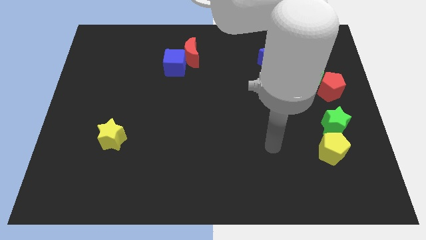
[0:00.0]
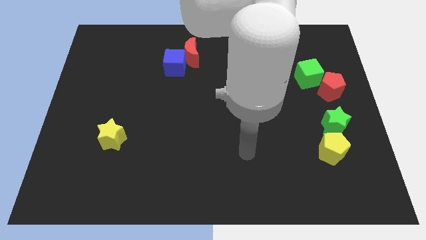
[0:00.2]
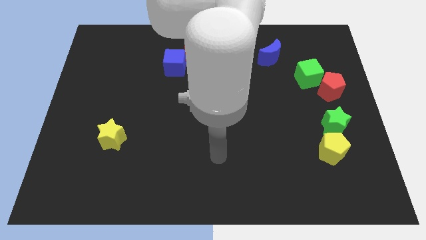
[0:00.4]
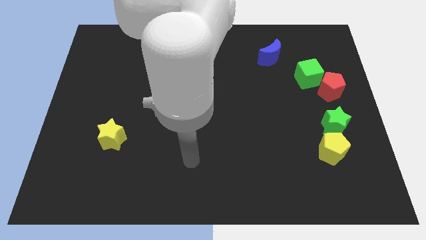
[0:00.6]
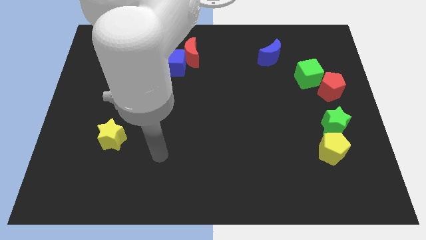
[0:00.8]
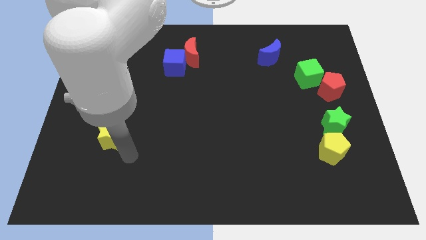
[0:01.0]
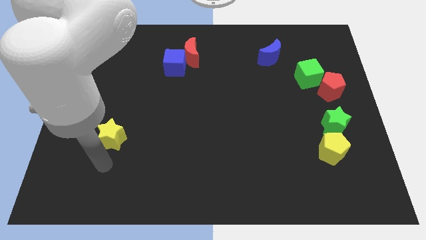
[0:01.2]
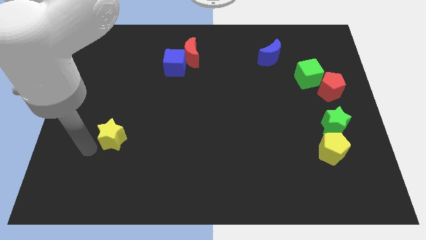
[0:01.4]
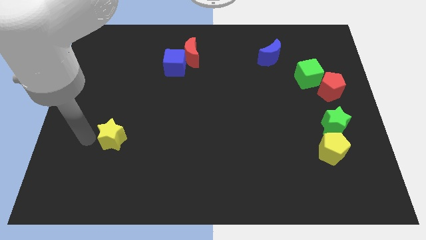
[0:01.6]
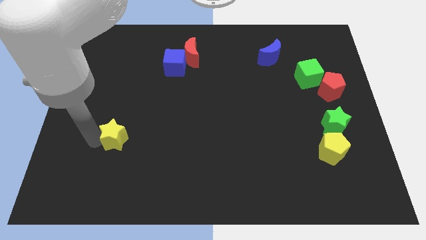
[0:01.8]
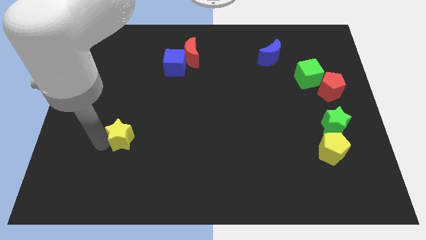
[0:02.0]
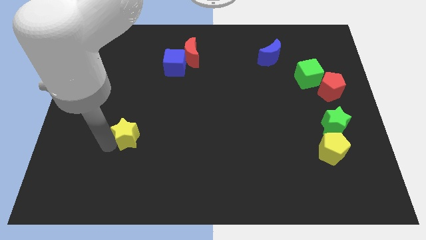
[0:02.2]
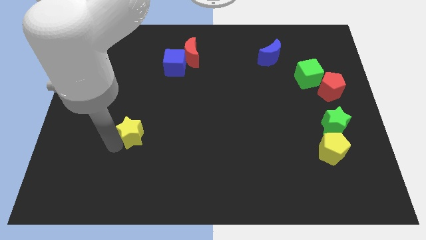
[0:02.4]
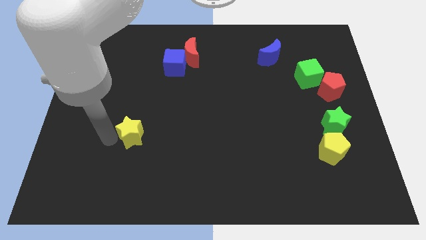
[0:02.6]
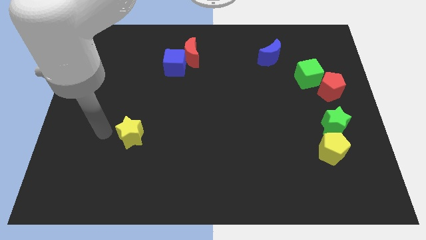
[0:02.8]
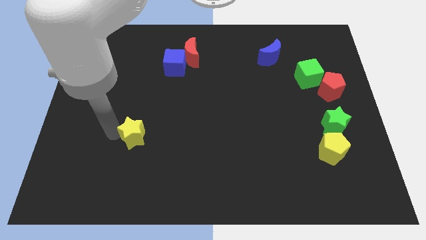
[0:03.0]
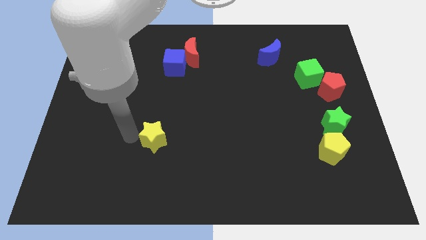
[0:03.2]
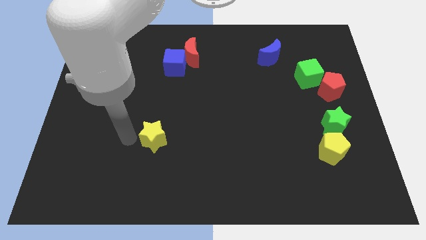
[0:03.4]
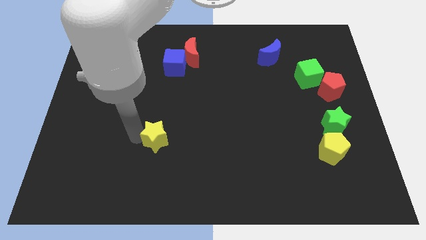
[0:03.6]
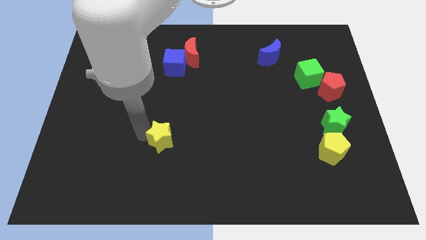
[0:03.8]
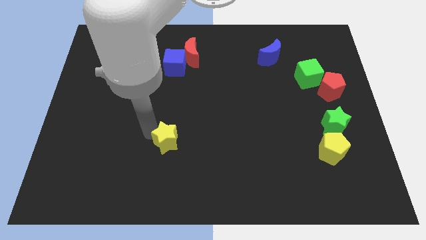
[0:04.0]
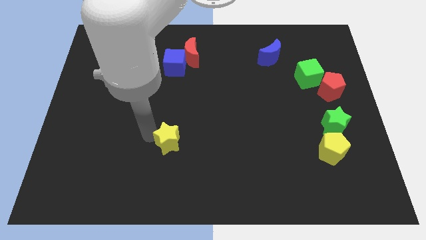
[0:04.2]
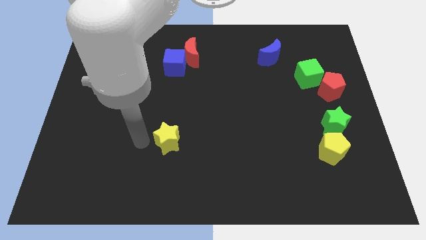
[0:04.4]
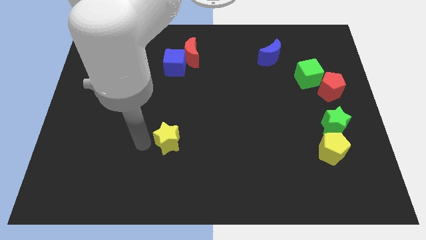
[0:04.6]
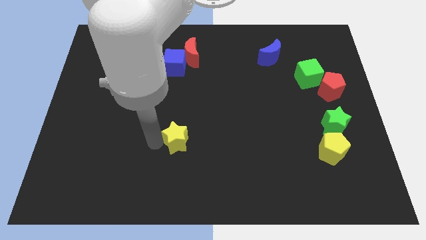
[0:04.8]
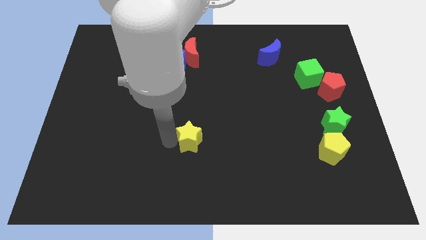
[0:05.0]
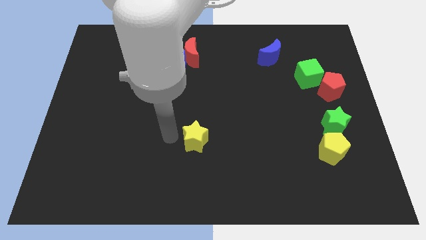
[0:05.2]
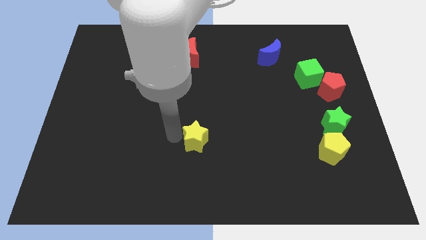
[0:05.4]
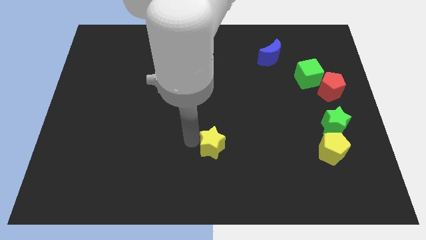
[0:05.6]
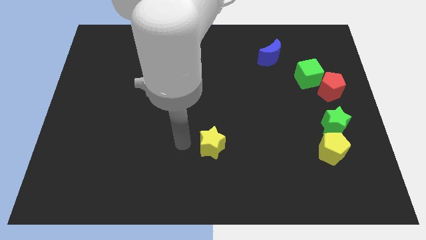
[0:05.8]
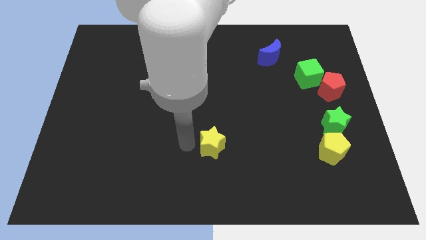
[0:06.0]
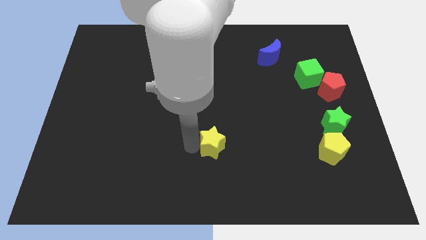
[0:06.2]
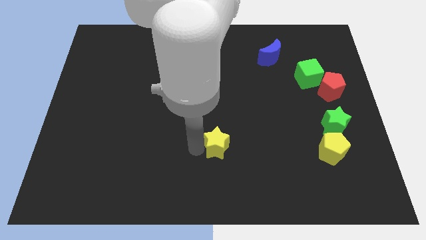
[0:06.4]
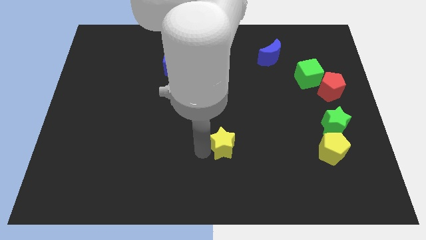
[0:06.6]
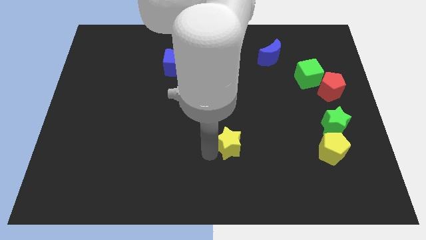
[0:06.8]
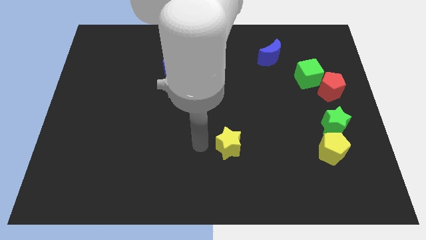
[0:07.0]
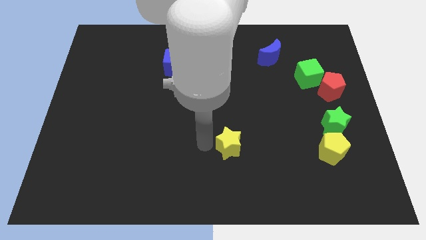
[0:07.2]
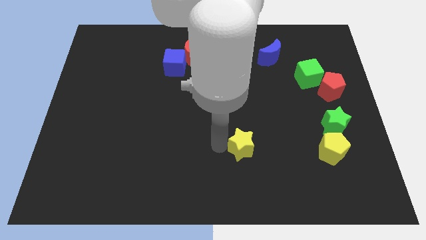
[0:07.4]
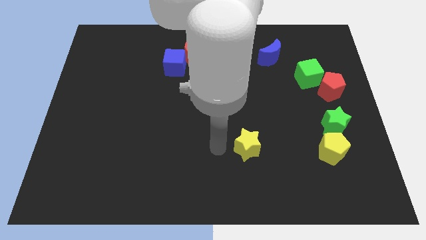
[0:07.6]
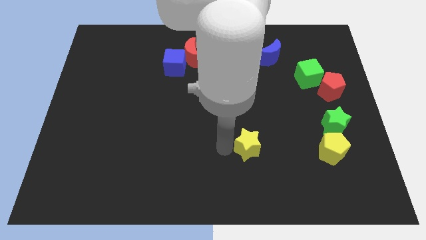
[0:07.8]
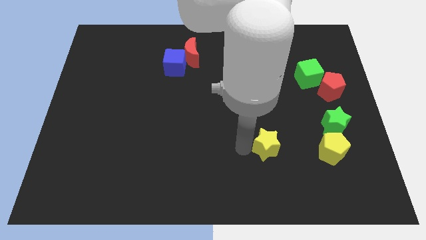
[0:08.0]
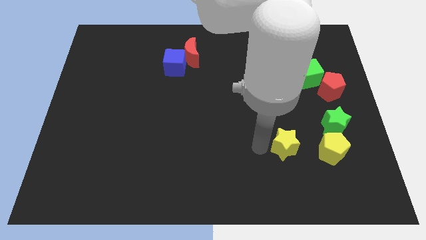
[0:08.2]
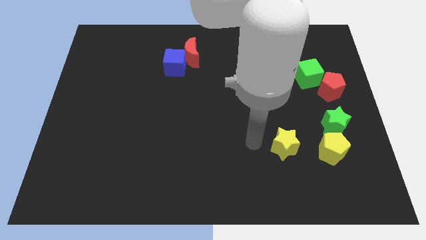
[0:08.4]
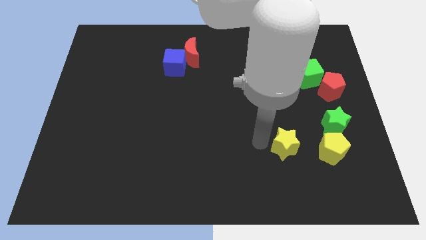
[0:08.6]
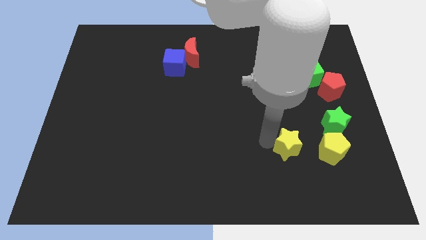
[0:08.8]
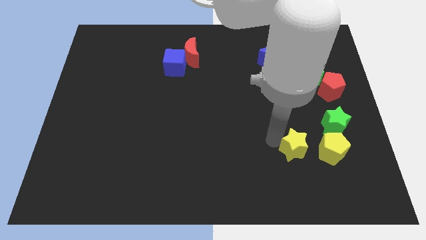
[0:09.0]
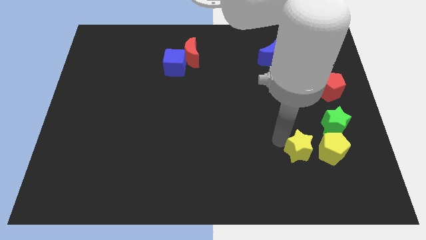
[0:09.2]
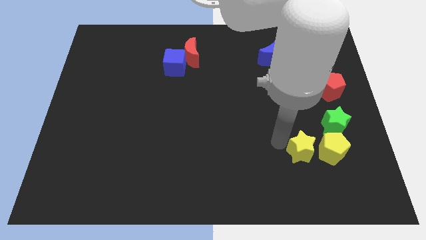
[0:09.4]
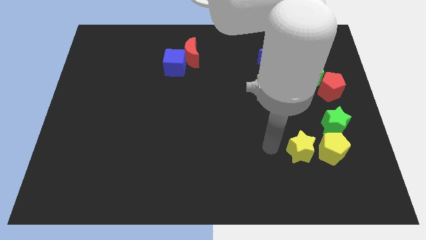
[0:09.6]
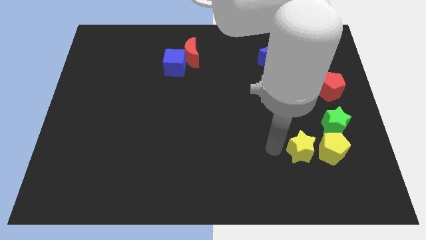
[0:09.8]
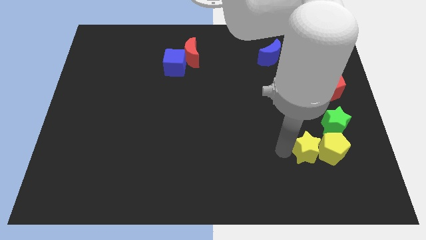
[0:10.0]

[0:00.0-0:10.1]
slide the yellow star to the yellow pentagon

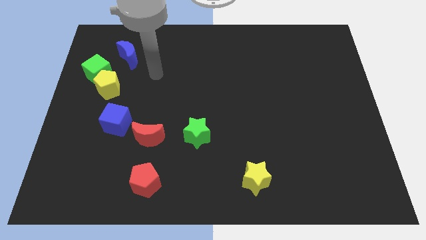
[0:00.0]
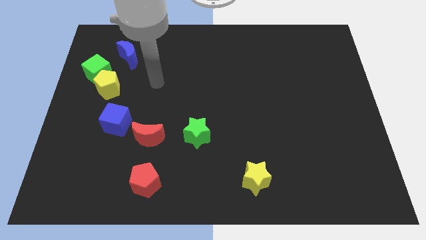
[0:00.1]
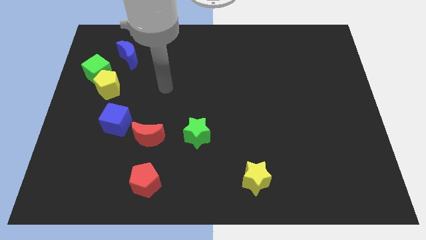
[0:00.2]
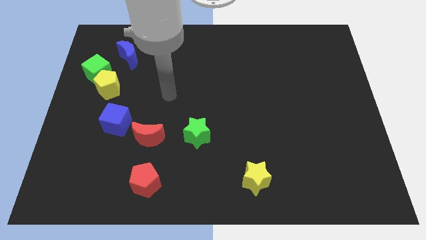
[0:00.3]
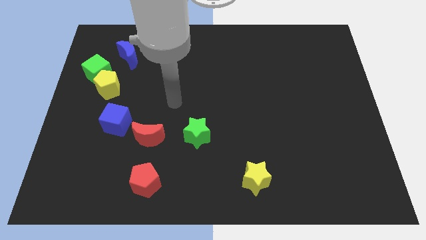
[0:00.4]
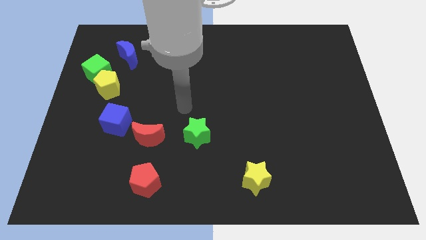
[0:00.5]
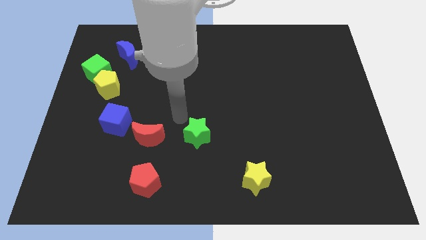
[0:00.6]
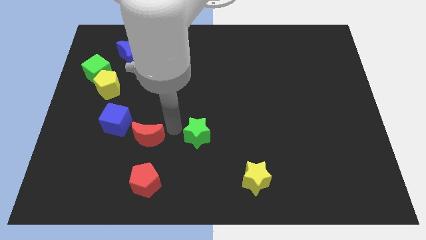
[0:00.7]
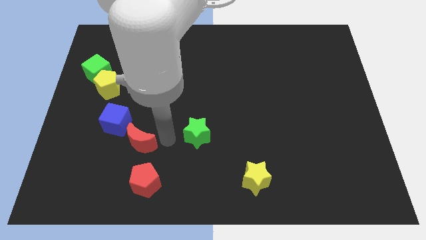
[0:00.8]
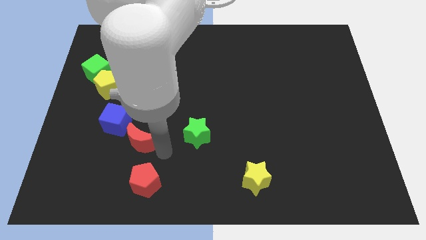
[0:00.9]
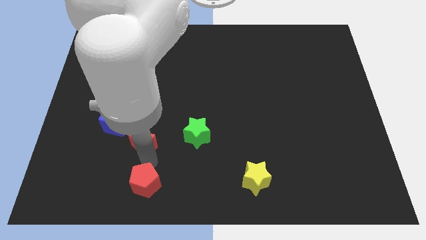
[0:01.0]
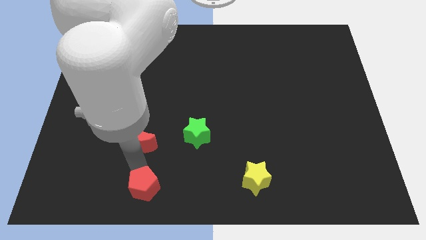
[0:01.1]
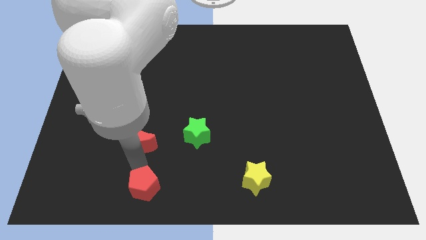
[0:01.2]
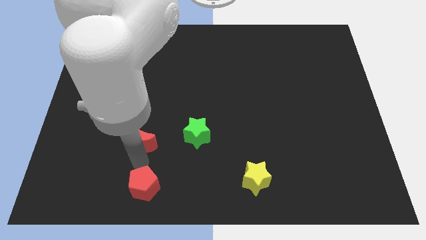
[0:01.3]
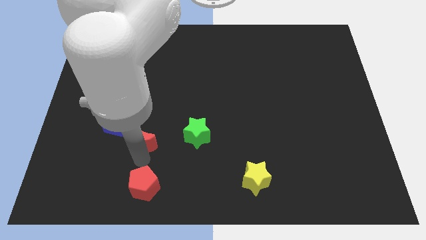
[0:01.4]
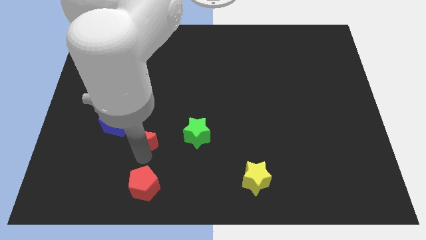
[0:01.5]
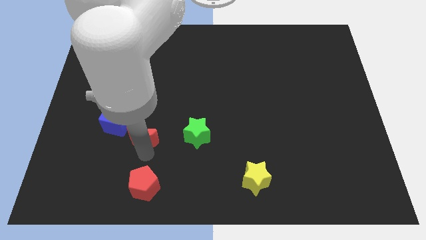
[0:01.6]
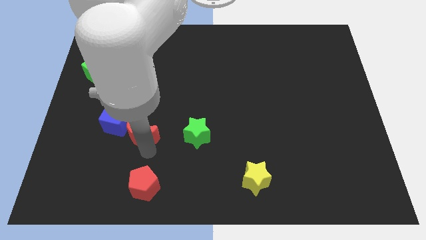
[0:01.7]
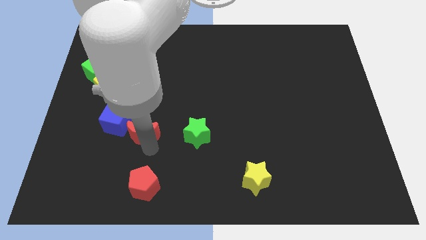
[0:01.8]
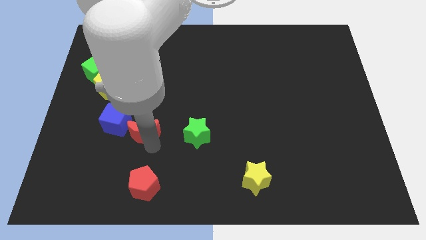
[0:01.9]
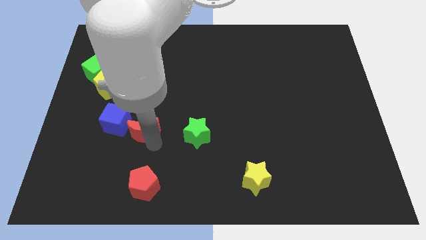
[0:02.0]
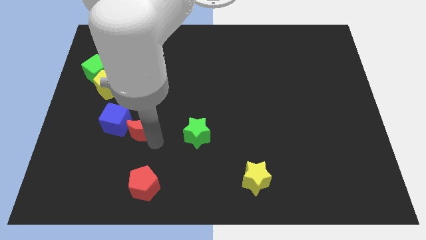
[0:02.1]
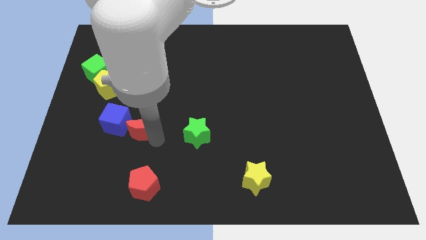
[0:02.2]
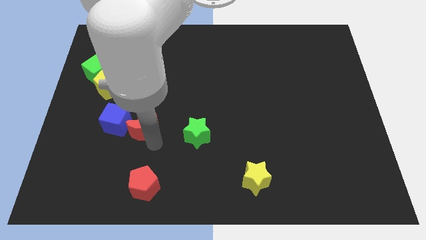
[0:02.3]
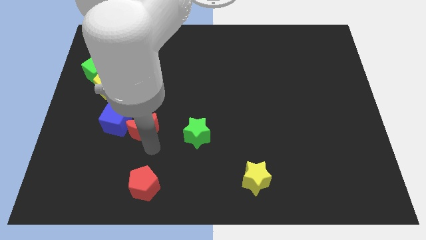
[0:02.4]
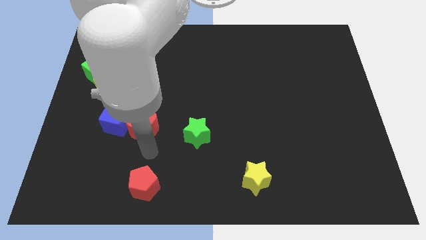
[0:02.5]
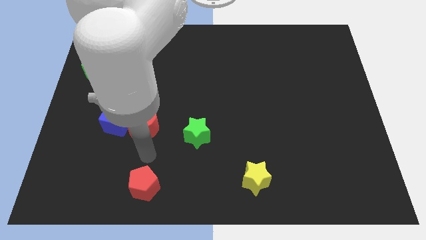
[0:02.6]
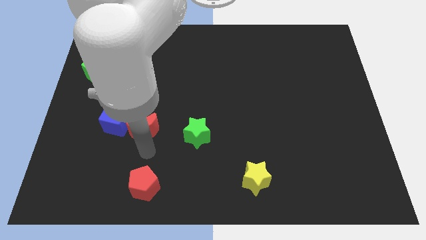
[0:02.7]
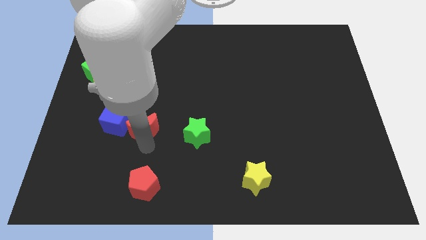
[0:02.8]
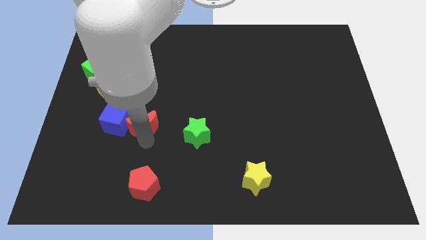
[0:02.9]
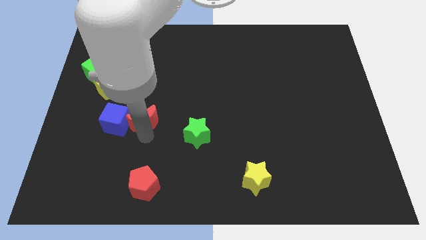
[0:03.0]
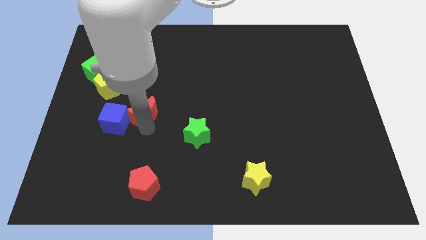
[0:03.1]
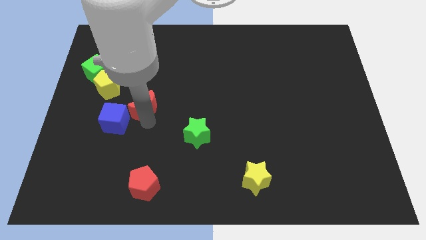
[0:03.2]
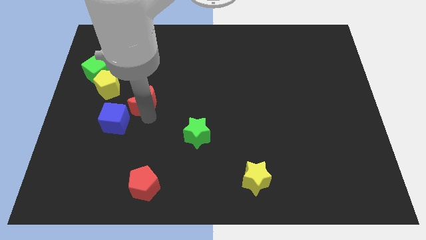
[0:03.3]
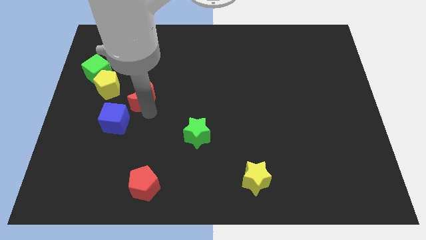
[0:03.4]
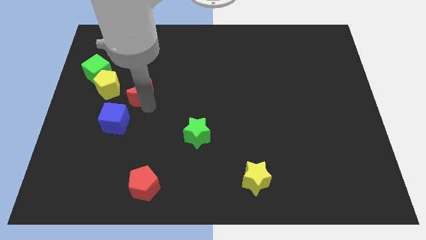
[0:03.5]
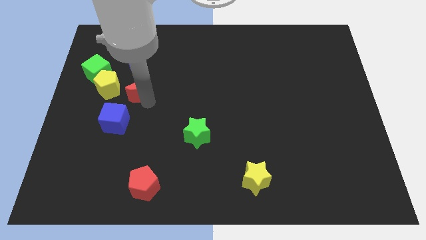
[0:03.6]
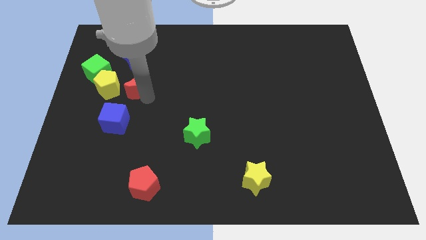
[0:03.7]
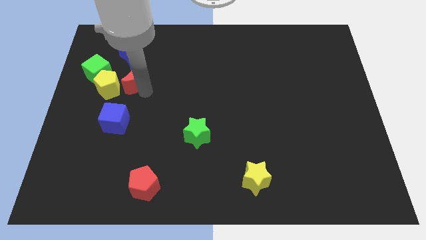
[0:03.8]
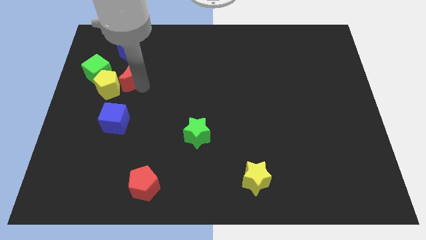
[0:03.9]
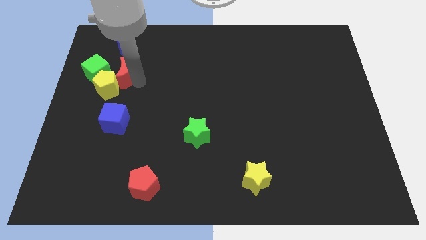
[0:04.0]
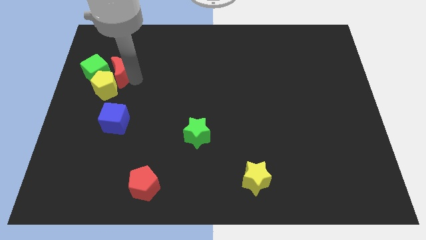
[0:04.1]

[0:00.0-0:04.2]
slide the red moon next to the green cube
